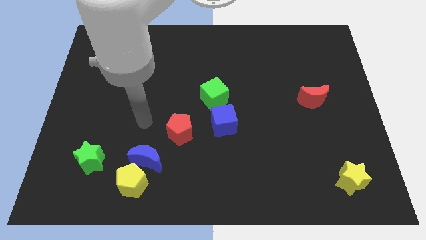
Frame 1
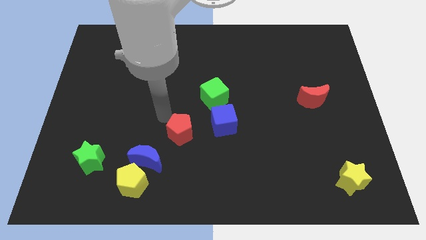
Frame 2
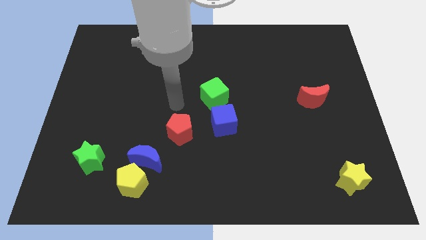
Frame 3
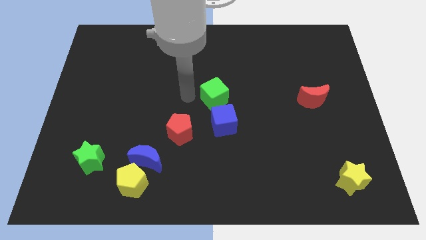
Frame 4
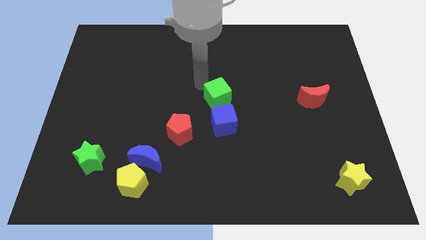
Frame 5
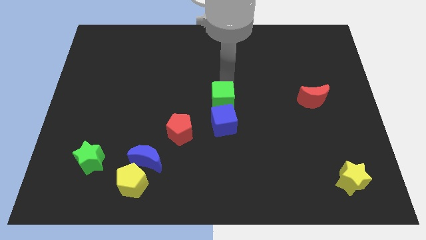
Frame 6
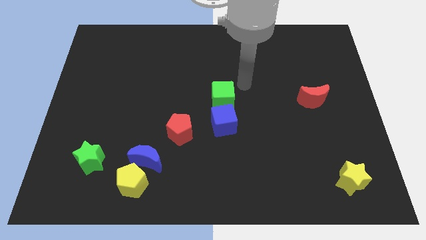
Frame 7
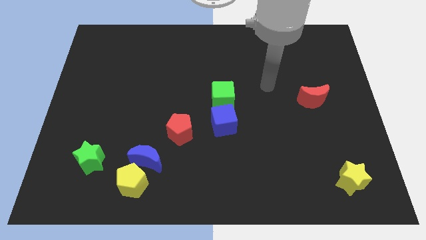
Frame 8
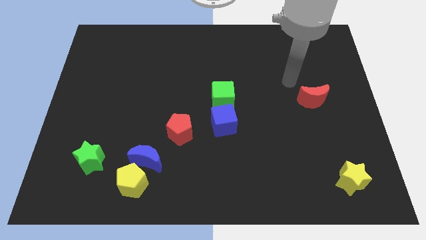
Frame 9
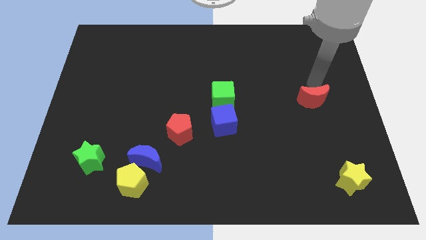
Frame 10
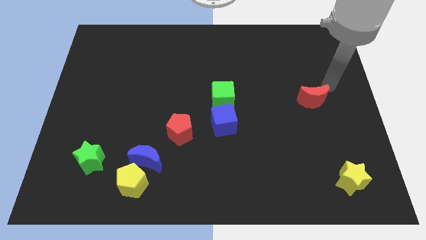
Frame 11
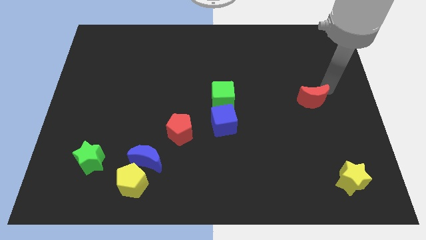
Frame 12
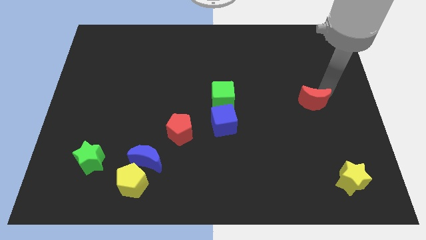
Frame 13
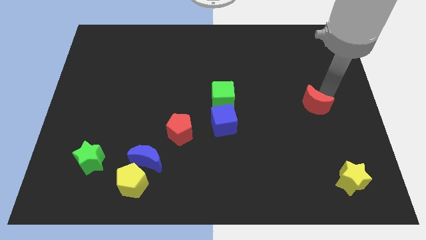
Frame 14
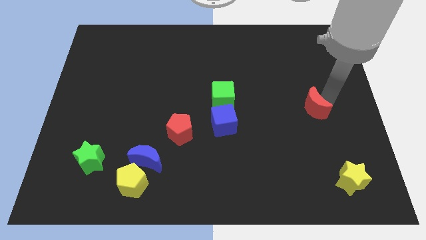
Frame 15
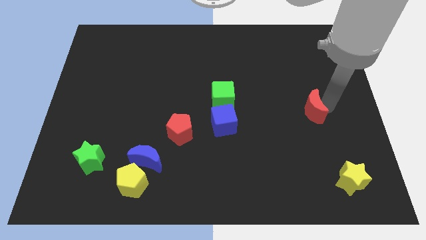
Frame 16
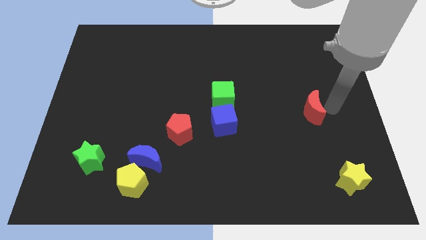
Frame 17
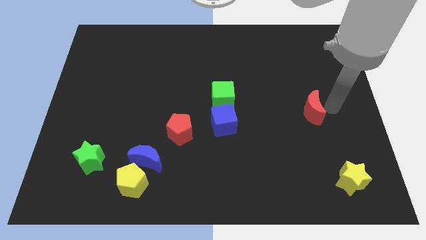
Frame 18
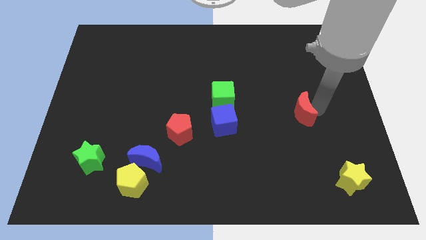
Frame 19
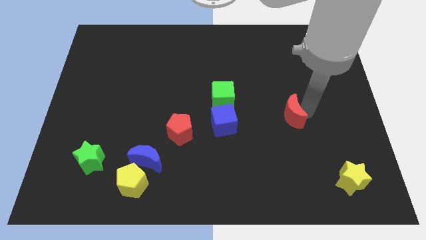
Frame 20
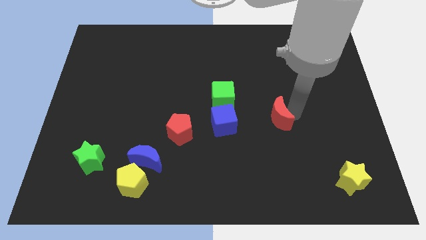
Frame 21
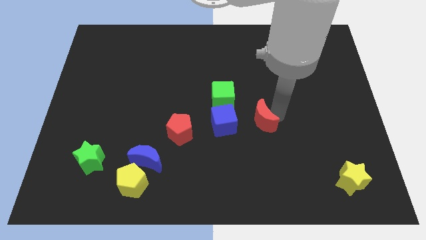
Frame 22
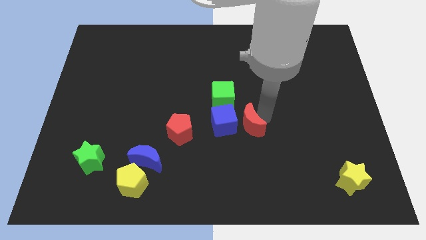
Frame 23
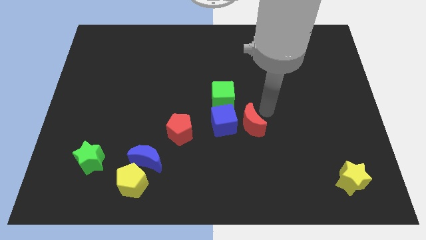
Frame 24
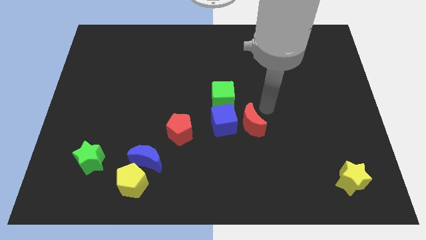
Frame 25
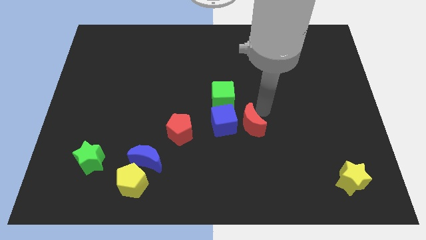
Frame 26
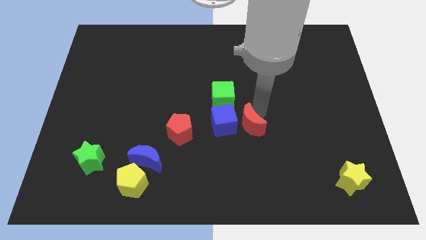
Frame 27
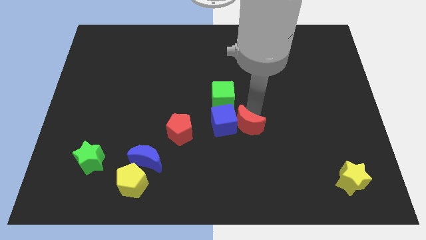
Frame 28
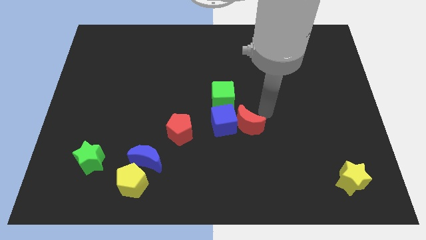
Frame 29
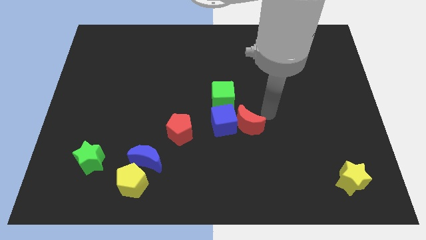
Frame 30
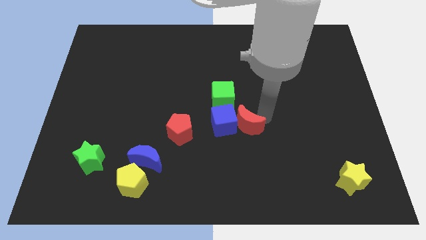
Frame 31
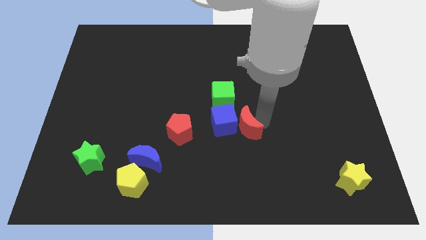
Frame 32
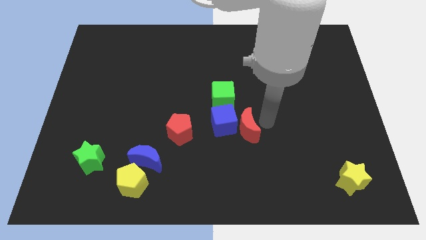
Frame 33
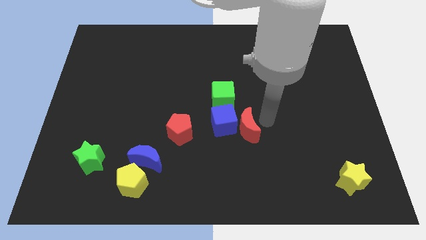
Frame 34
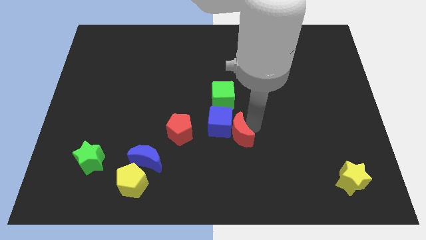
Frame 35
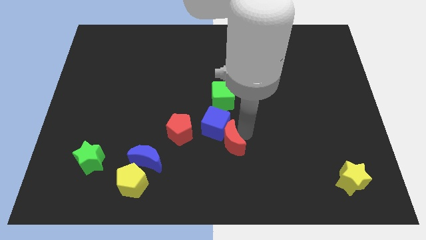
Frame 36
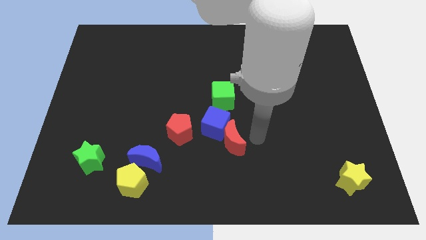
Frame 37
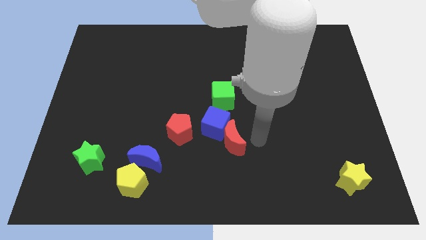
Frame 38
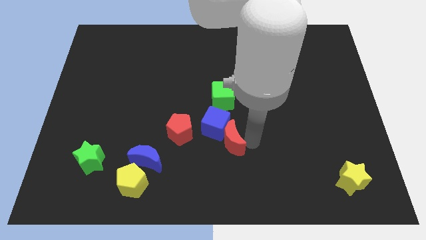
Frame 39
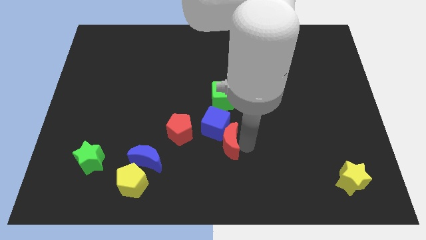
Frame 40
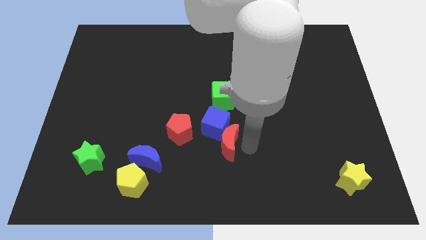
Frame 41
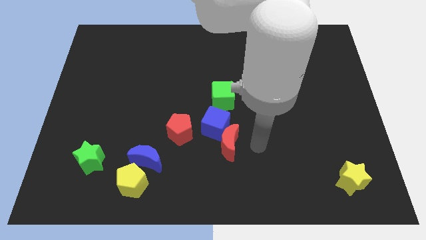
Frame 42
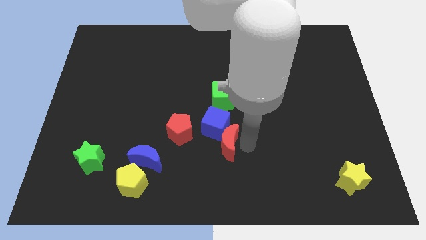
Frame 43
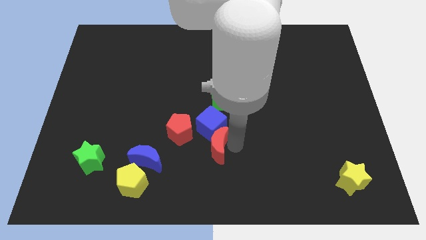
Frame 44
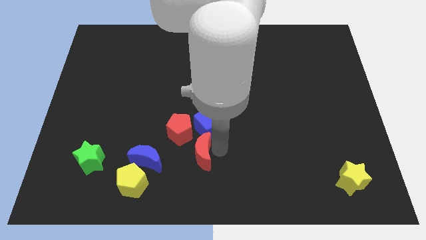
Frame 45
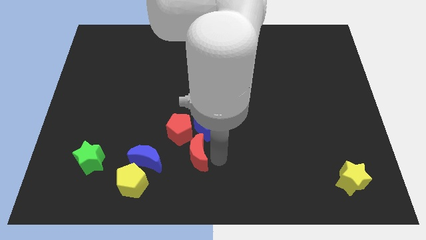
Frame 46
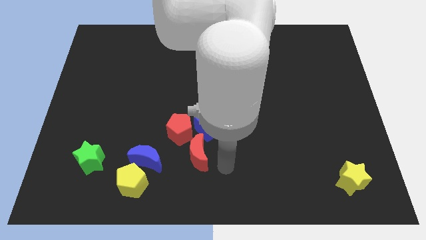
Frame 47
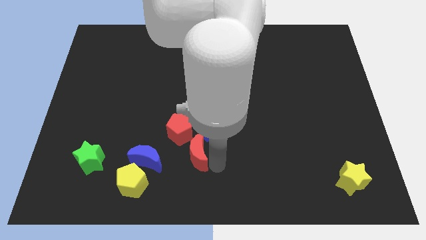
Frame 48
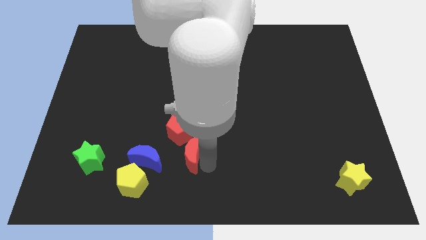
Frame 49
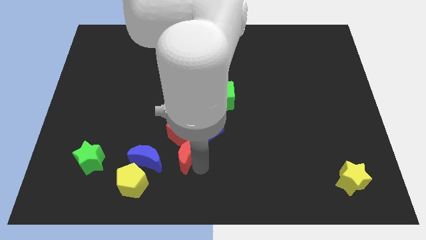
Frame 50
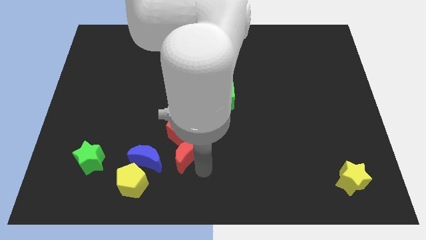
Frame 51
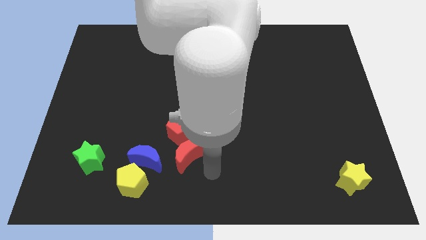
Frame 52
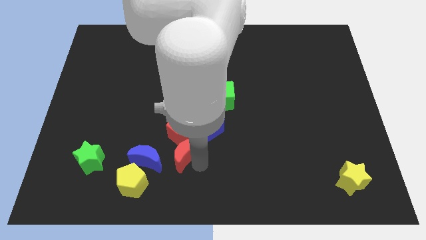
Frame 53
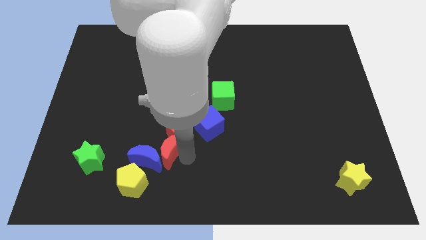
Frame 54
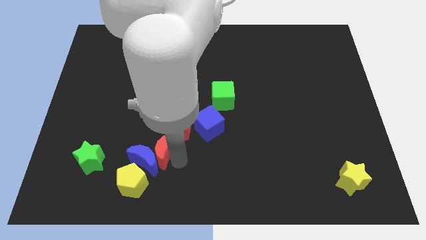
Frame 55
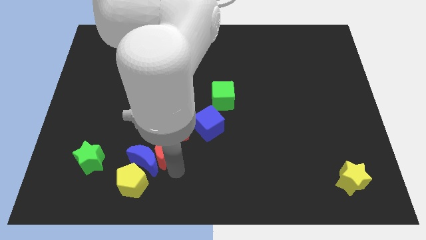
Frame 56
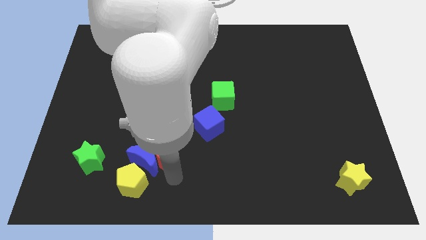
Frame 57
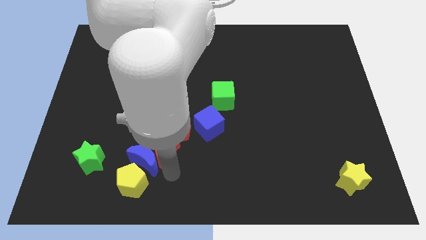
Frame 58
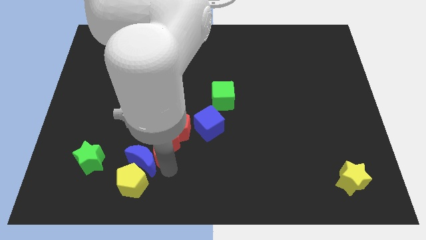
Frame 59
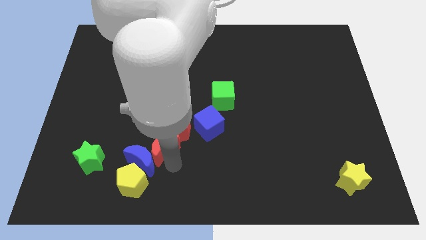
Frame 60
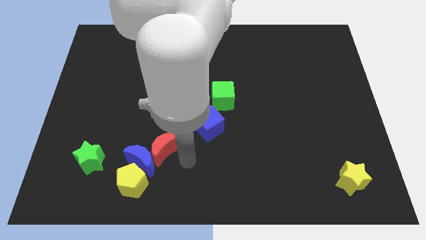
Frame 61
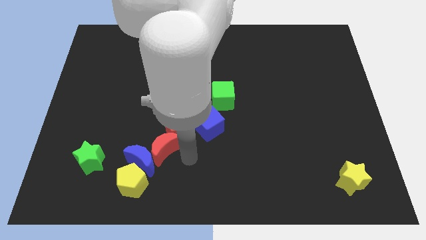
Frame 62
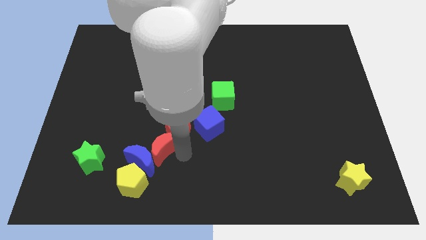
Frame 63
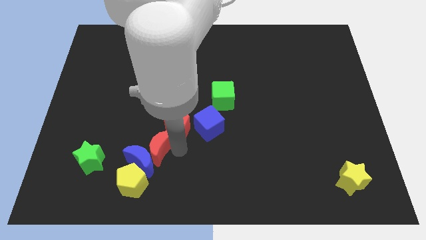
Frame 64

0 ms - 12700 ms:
push the red moon above the yellow pentagon

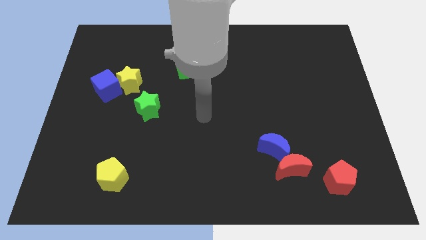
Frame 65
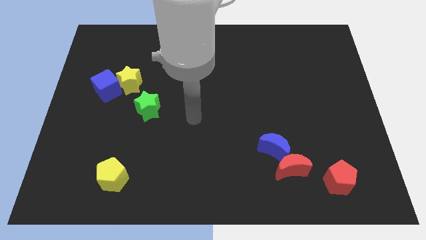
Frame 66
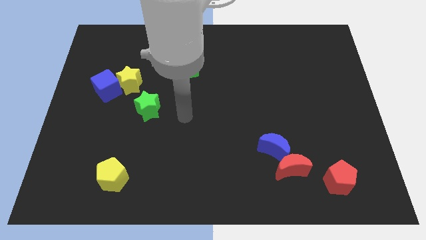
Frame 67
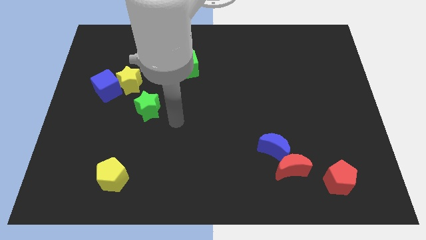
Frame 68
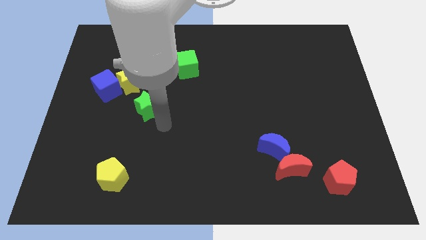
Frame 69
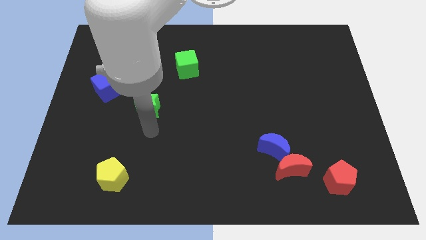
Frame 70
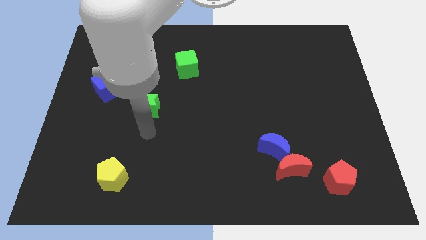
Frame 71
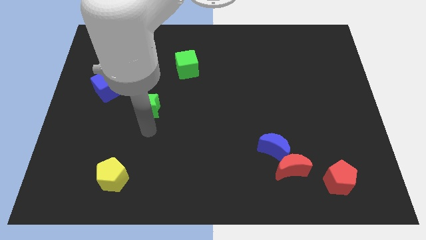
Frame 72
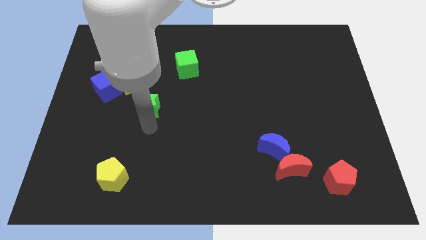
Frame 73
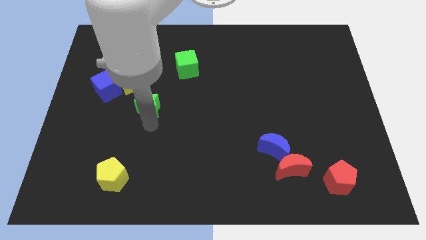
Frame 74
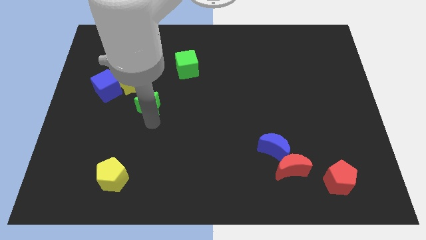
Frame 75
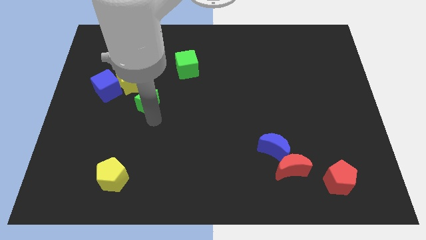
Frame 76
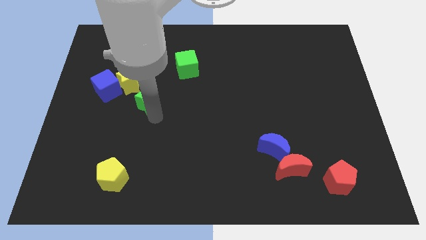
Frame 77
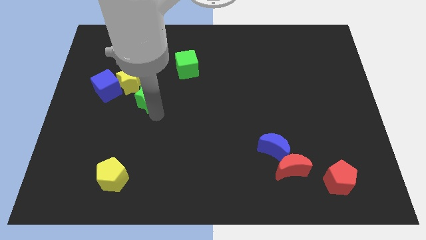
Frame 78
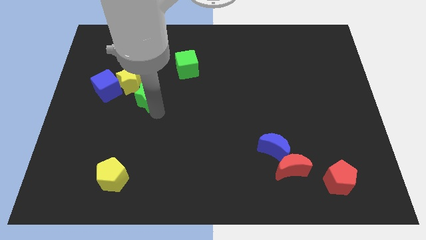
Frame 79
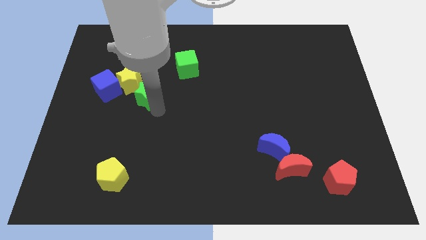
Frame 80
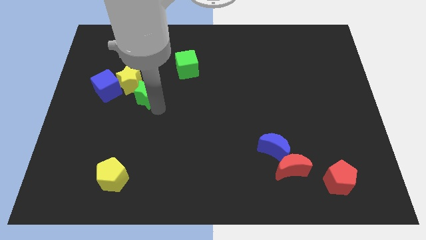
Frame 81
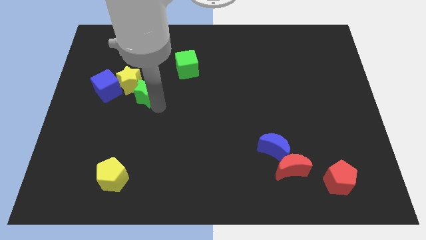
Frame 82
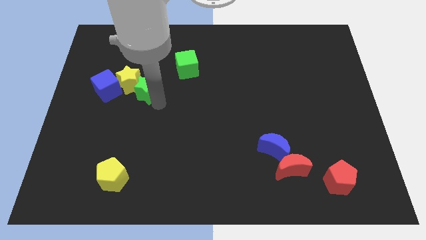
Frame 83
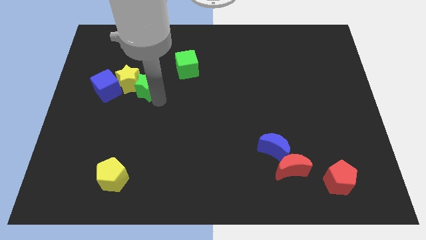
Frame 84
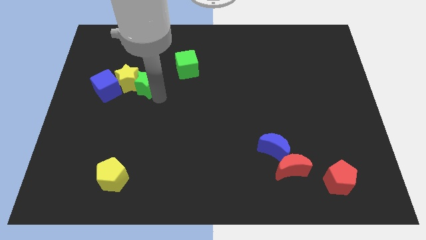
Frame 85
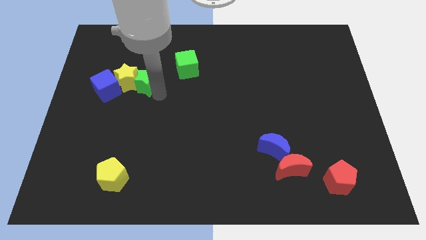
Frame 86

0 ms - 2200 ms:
put the green star to the top right side of the yellow star
